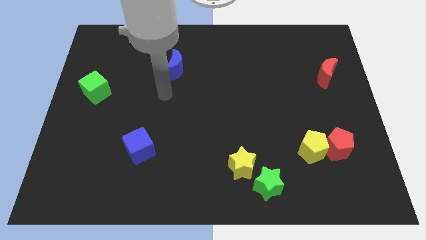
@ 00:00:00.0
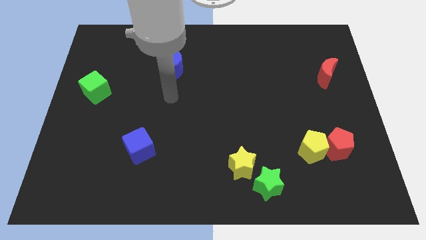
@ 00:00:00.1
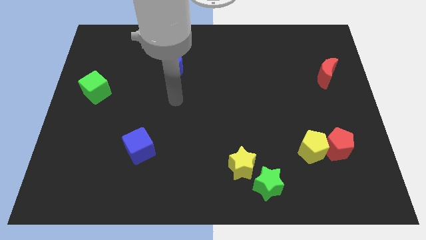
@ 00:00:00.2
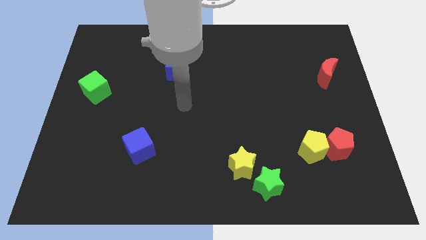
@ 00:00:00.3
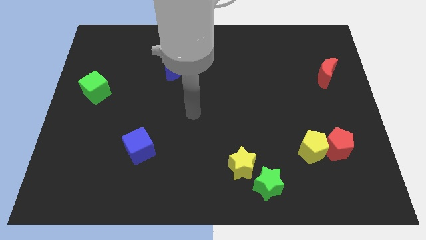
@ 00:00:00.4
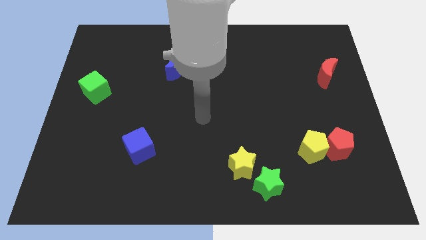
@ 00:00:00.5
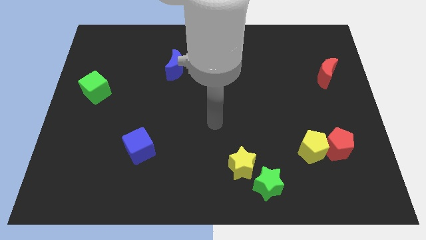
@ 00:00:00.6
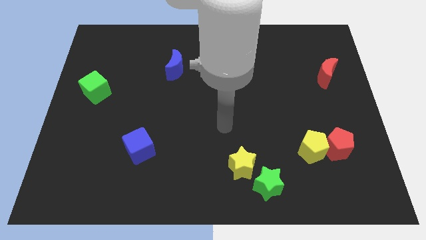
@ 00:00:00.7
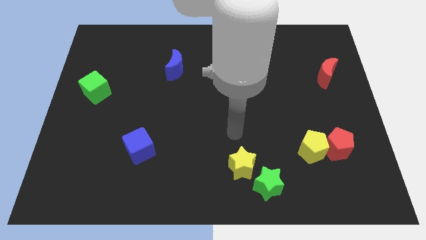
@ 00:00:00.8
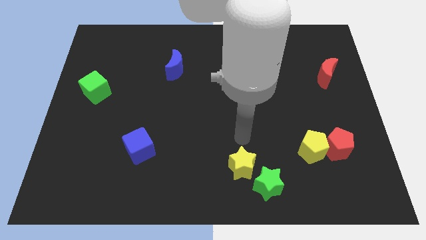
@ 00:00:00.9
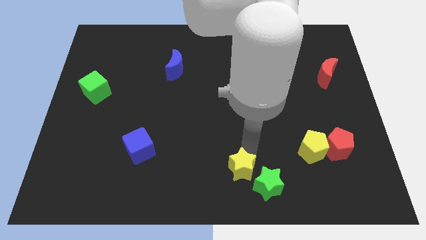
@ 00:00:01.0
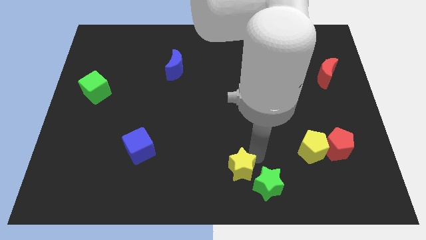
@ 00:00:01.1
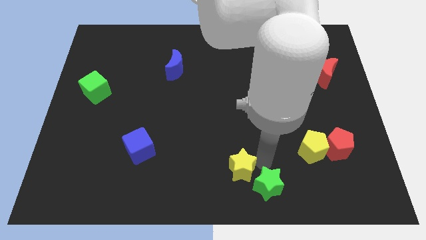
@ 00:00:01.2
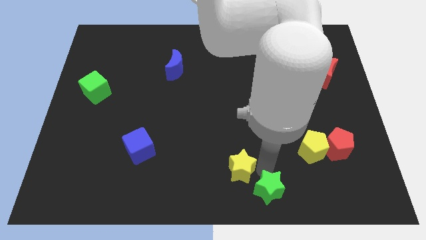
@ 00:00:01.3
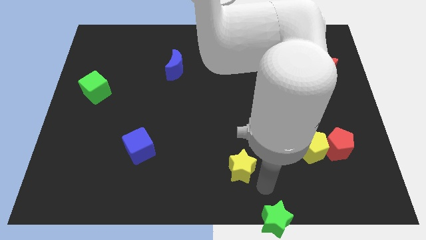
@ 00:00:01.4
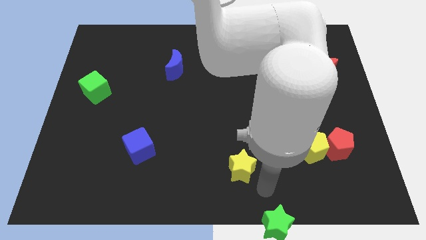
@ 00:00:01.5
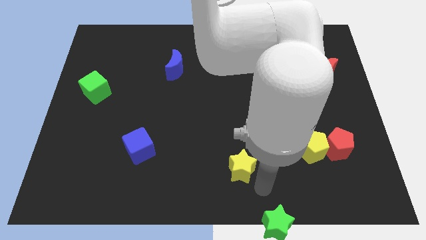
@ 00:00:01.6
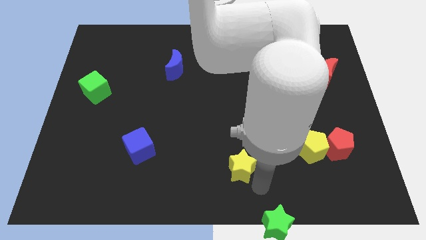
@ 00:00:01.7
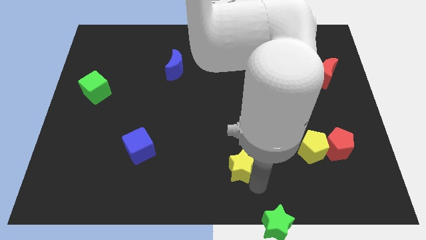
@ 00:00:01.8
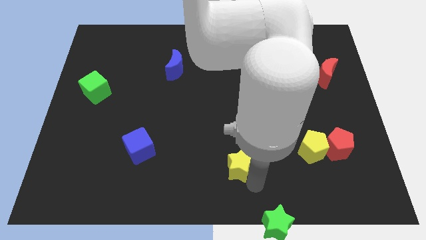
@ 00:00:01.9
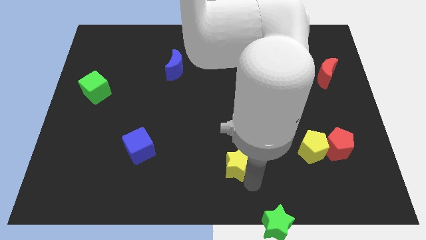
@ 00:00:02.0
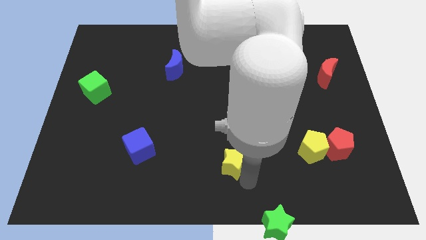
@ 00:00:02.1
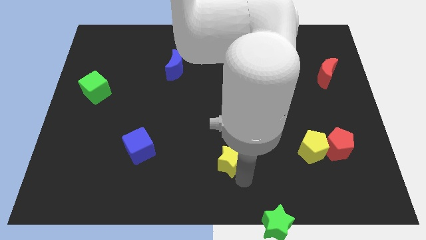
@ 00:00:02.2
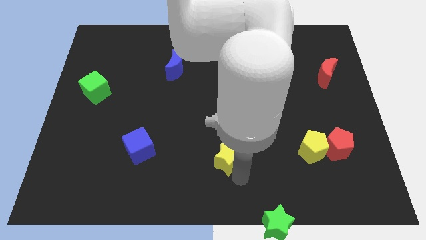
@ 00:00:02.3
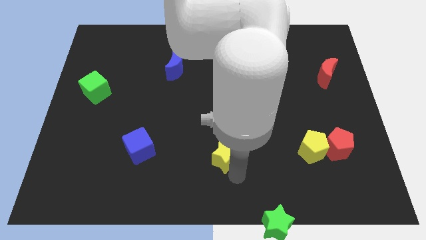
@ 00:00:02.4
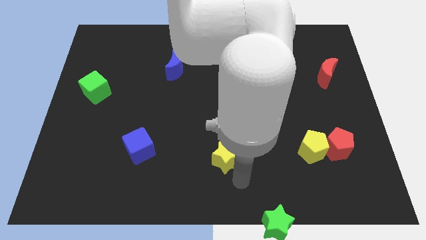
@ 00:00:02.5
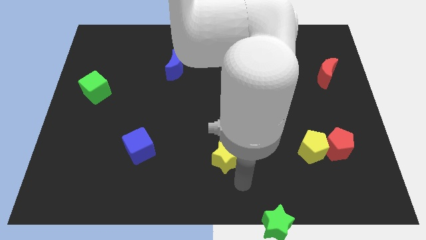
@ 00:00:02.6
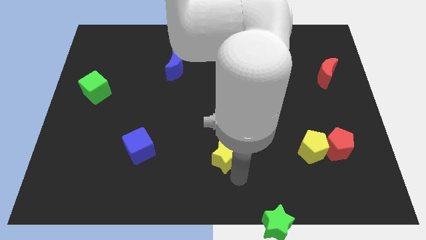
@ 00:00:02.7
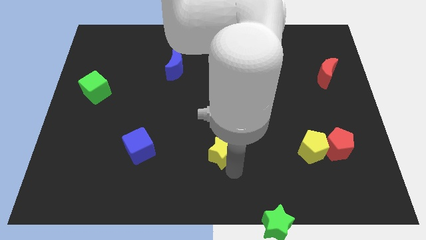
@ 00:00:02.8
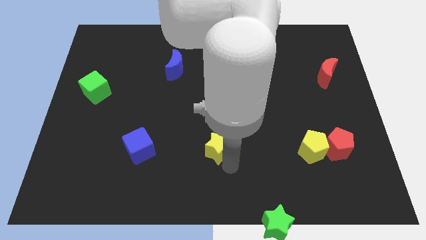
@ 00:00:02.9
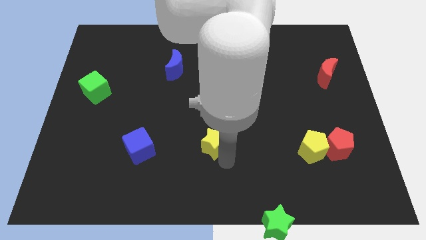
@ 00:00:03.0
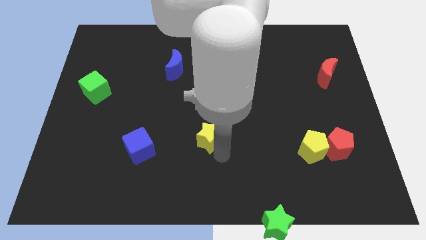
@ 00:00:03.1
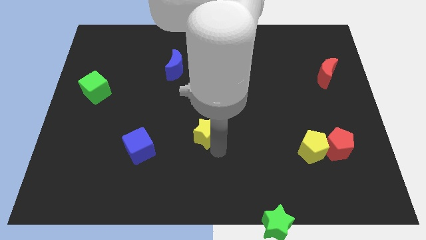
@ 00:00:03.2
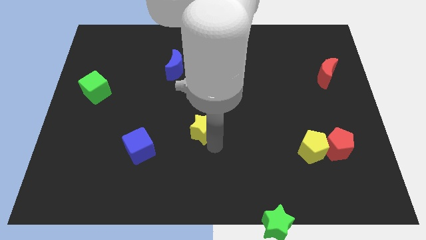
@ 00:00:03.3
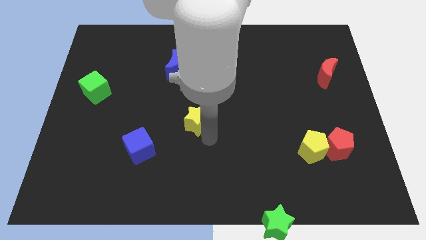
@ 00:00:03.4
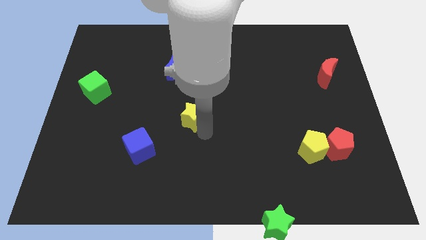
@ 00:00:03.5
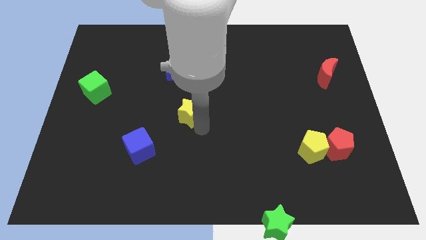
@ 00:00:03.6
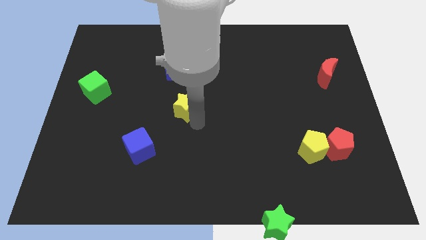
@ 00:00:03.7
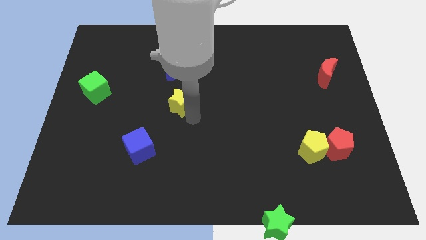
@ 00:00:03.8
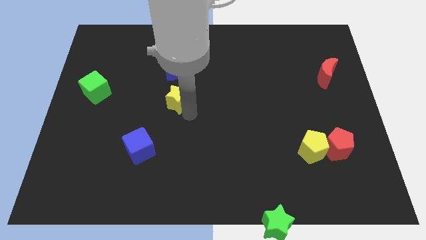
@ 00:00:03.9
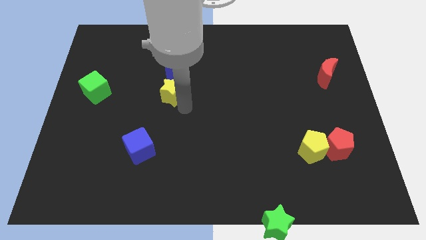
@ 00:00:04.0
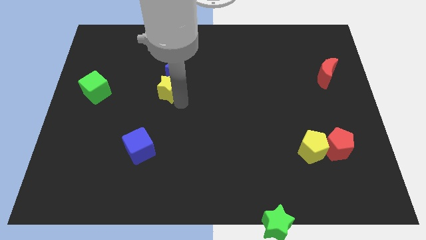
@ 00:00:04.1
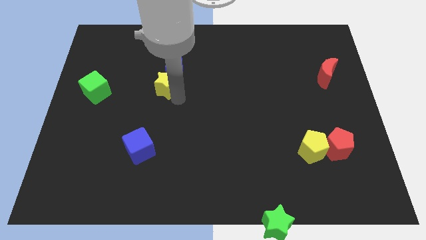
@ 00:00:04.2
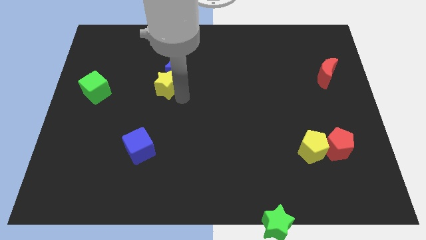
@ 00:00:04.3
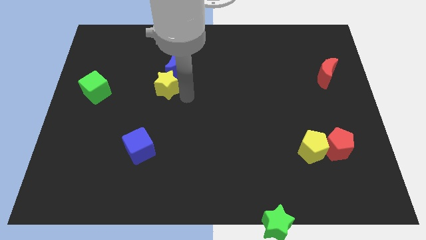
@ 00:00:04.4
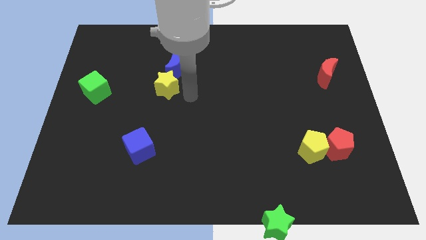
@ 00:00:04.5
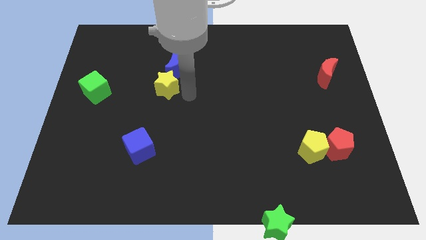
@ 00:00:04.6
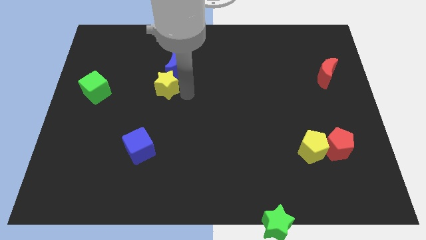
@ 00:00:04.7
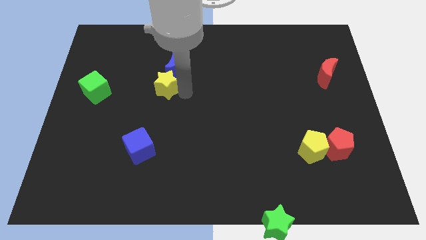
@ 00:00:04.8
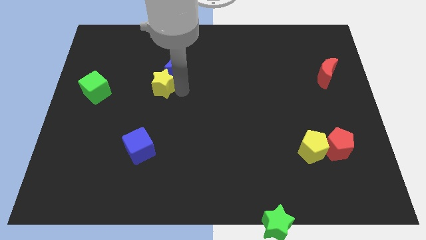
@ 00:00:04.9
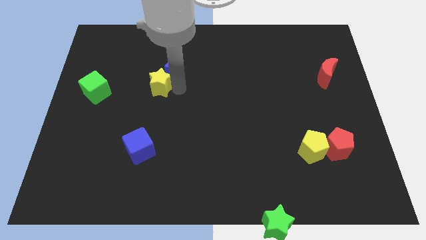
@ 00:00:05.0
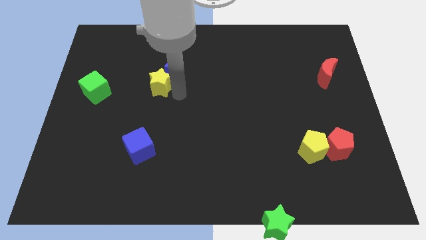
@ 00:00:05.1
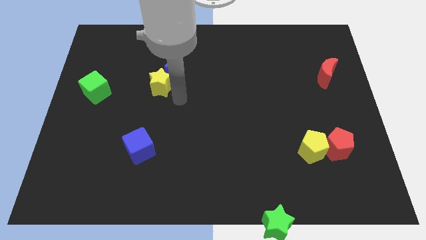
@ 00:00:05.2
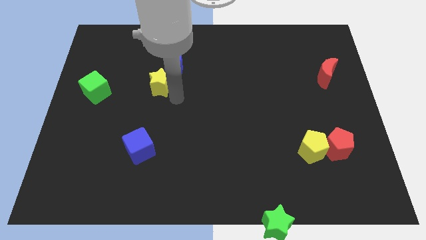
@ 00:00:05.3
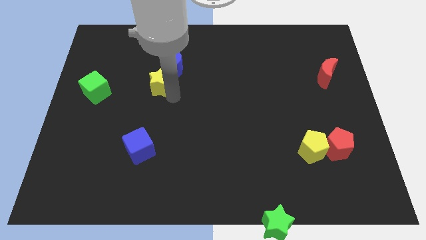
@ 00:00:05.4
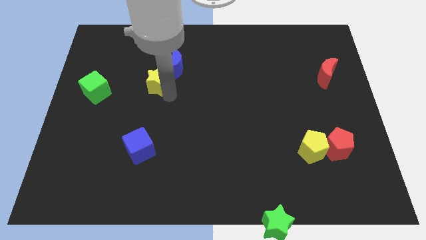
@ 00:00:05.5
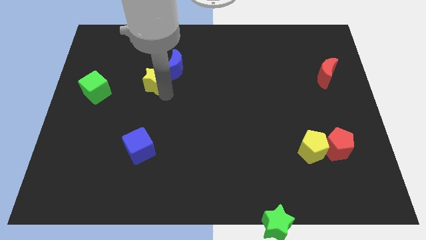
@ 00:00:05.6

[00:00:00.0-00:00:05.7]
push the yellow star to the left of the blue moon

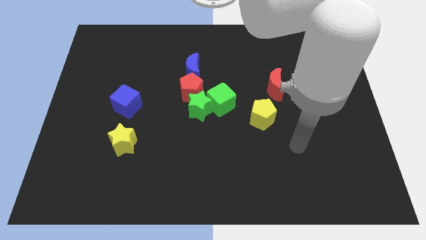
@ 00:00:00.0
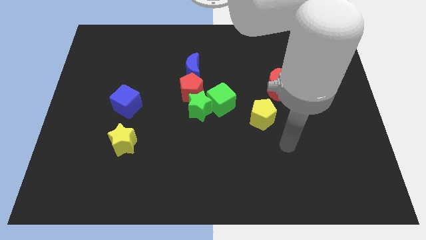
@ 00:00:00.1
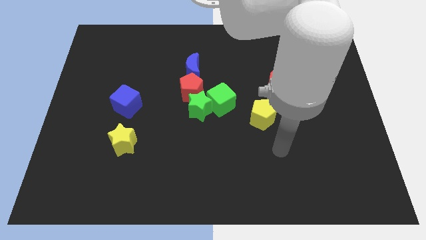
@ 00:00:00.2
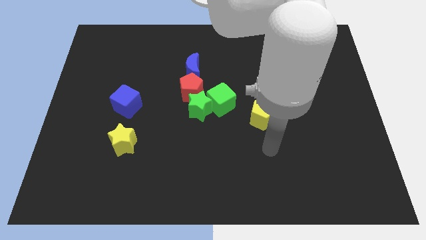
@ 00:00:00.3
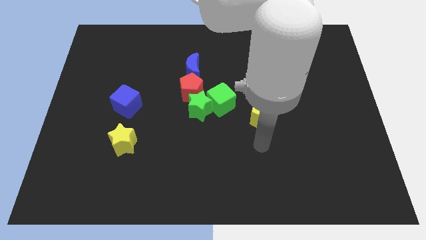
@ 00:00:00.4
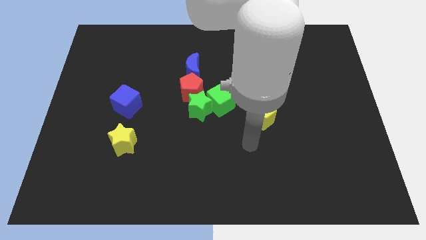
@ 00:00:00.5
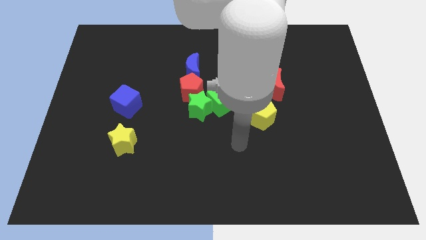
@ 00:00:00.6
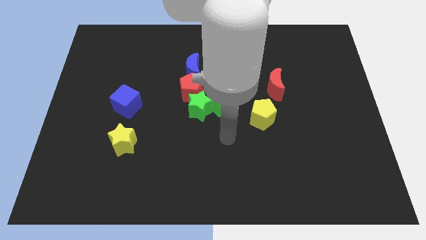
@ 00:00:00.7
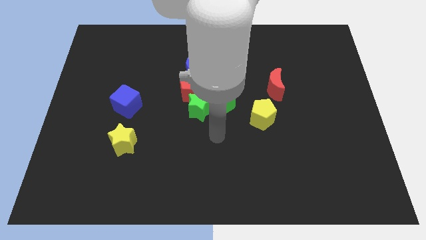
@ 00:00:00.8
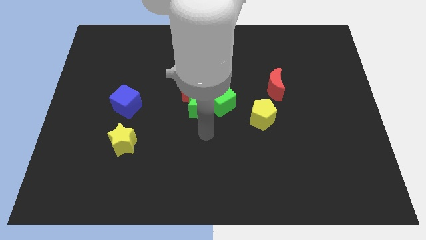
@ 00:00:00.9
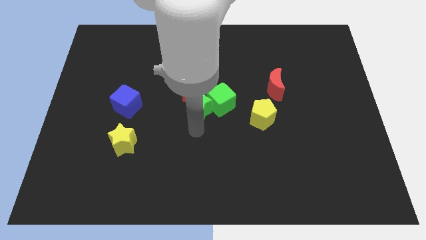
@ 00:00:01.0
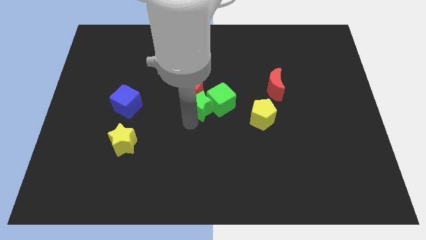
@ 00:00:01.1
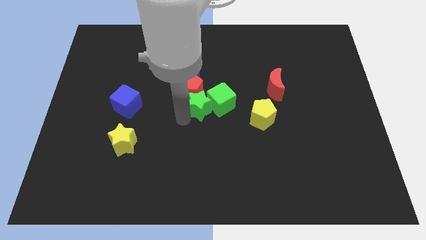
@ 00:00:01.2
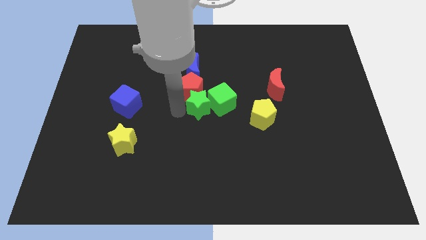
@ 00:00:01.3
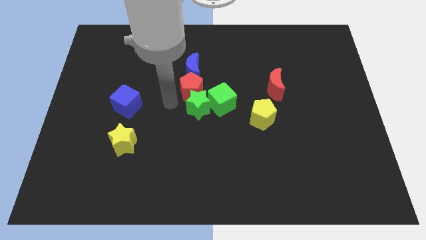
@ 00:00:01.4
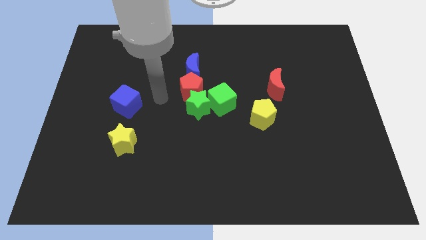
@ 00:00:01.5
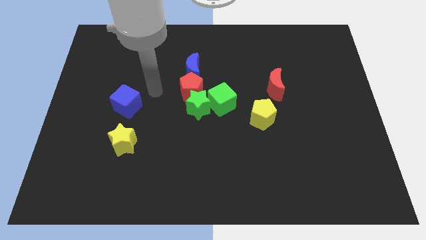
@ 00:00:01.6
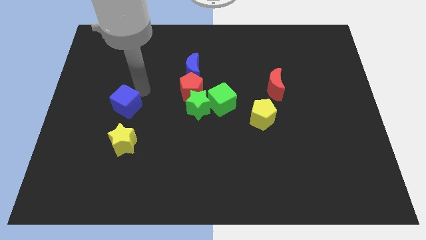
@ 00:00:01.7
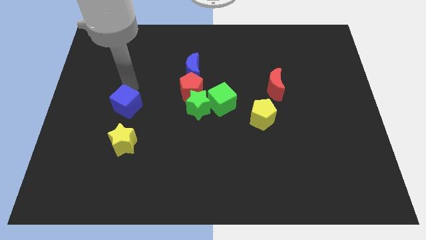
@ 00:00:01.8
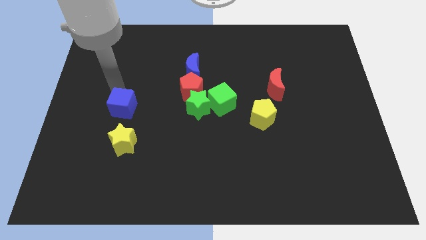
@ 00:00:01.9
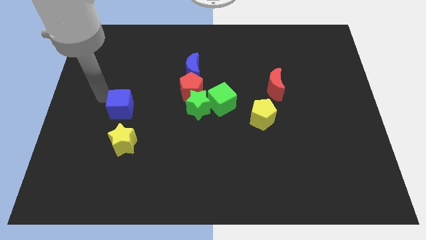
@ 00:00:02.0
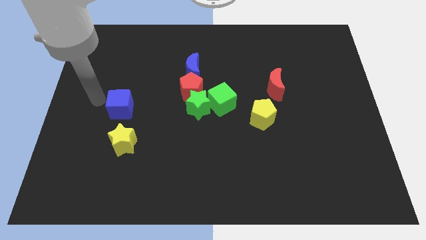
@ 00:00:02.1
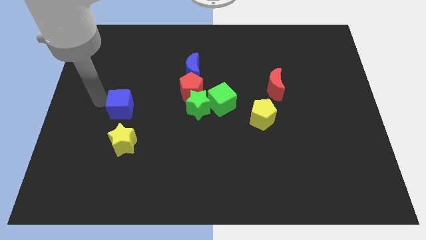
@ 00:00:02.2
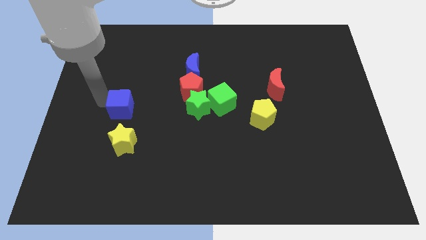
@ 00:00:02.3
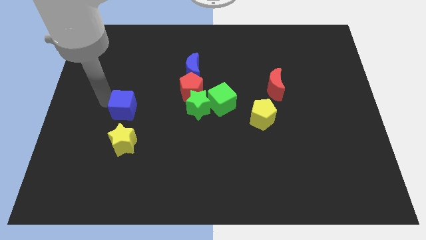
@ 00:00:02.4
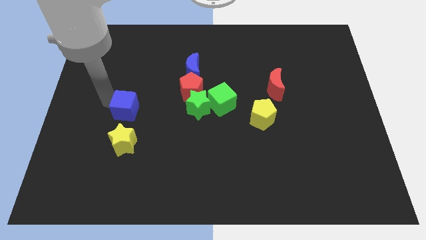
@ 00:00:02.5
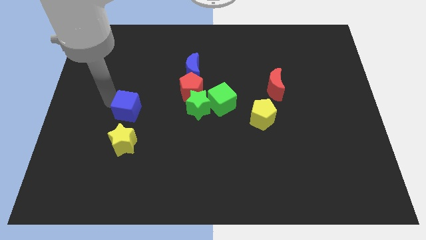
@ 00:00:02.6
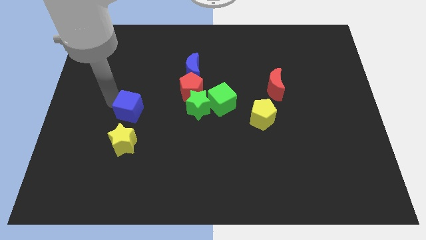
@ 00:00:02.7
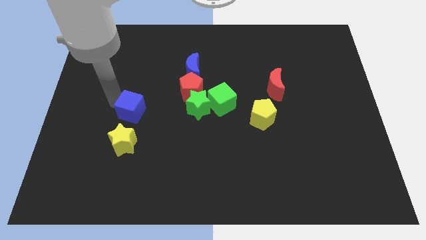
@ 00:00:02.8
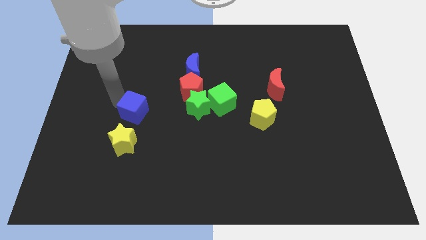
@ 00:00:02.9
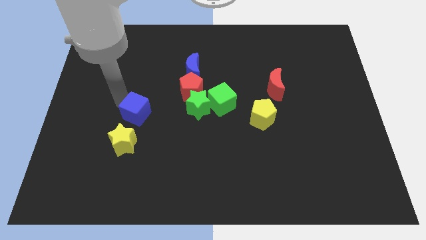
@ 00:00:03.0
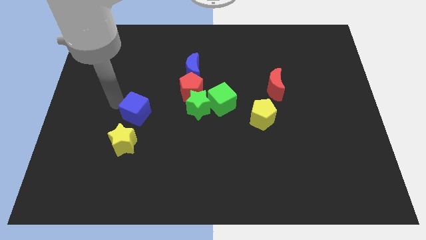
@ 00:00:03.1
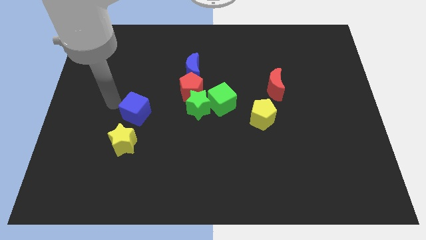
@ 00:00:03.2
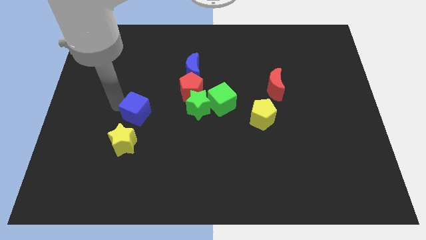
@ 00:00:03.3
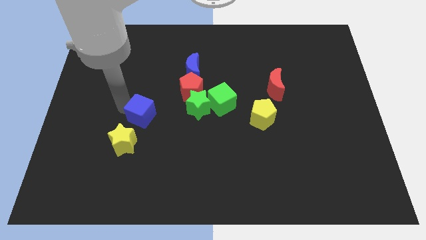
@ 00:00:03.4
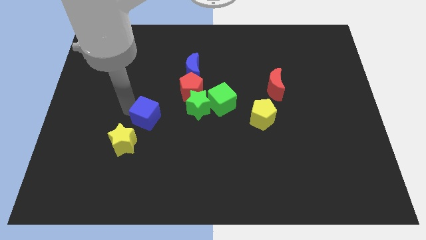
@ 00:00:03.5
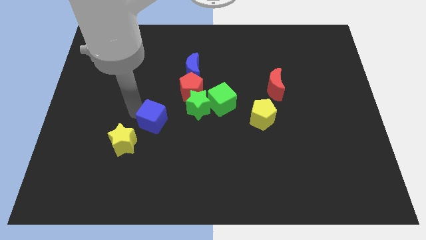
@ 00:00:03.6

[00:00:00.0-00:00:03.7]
move the blue cube to the bottom left of the green star
